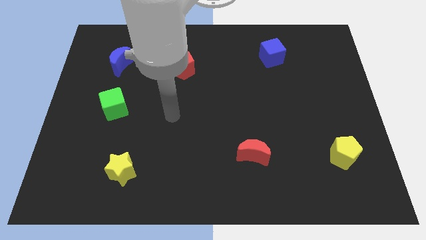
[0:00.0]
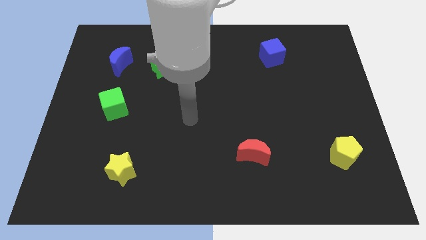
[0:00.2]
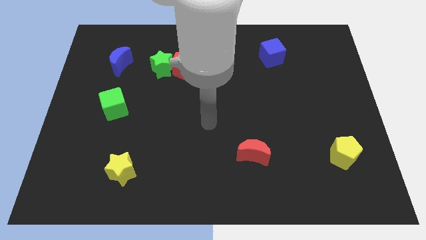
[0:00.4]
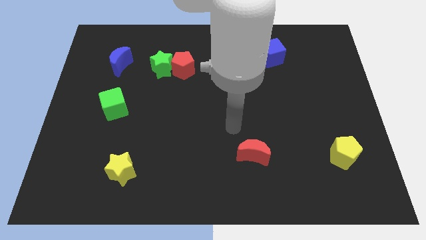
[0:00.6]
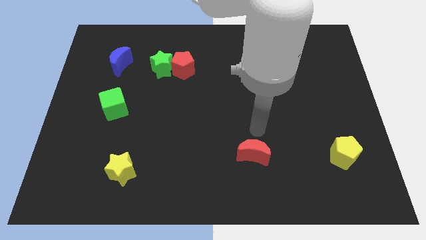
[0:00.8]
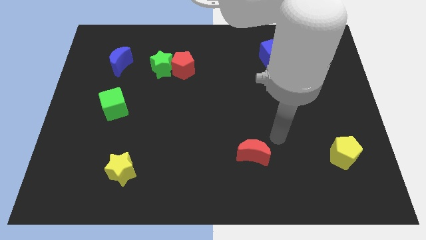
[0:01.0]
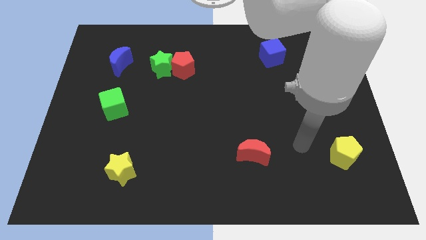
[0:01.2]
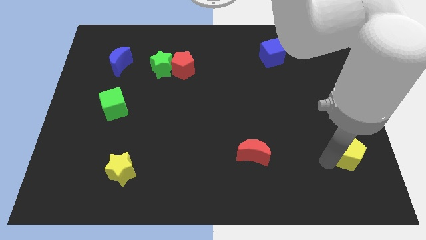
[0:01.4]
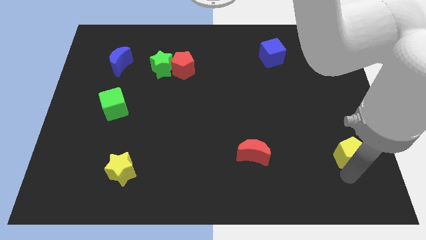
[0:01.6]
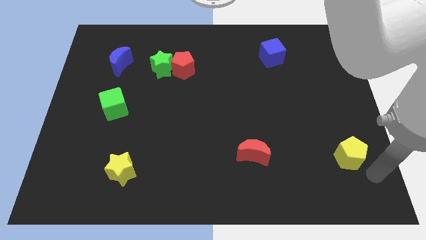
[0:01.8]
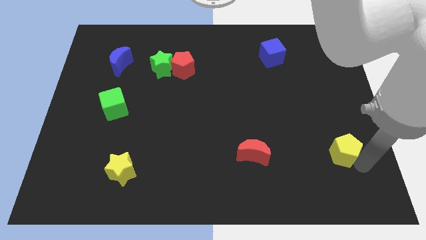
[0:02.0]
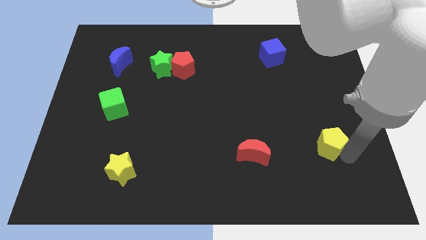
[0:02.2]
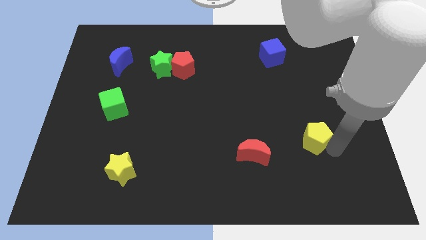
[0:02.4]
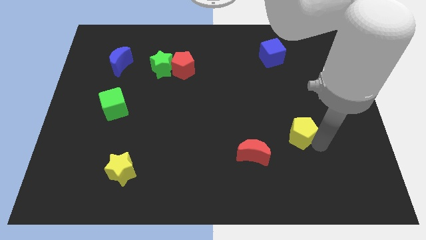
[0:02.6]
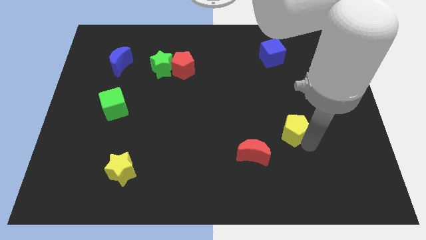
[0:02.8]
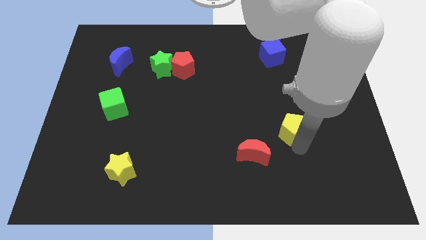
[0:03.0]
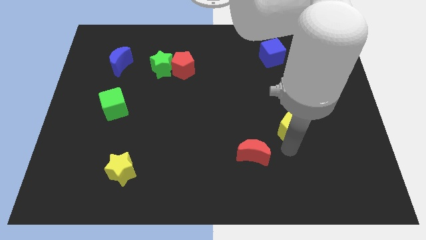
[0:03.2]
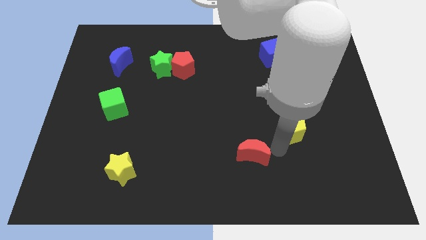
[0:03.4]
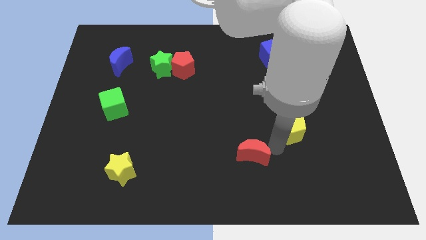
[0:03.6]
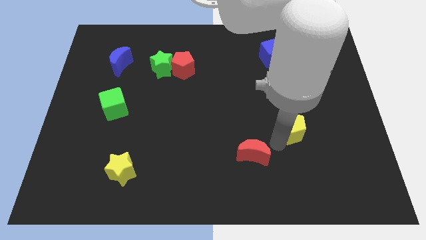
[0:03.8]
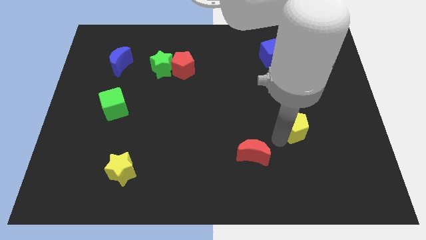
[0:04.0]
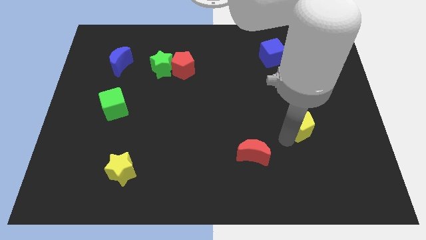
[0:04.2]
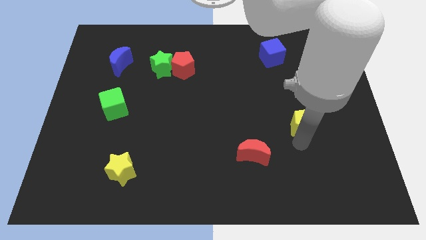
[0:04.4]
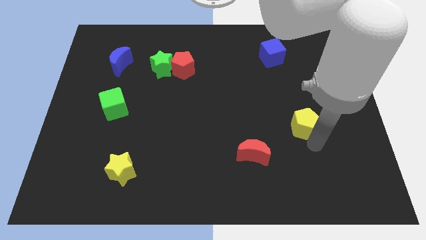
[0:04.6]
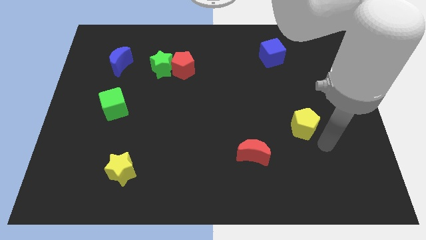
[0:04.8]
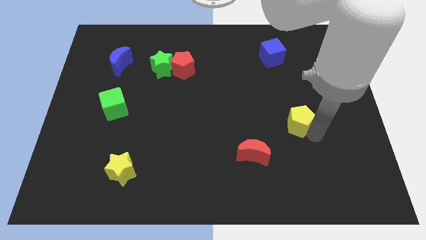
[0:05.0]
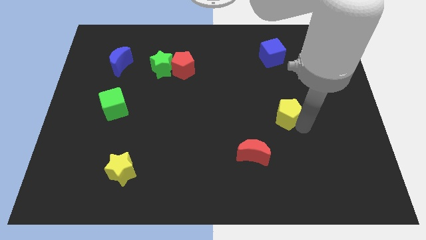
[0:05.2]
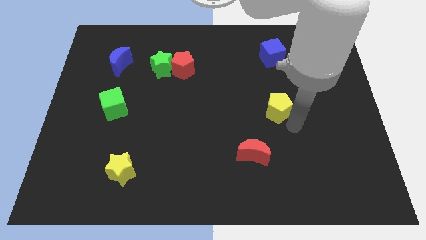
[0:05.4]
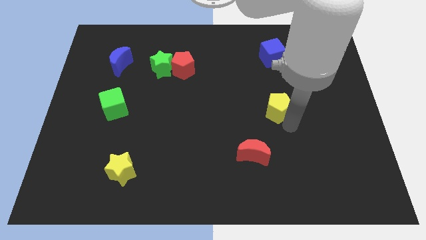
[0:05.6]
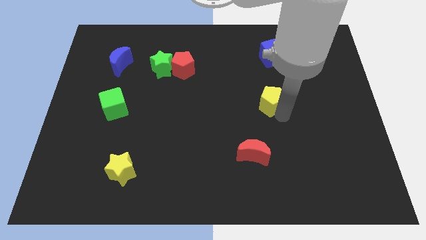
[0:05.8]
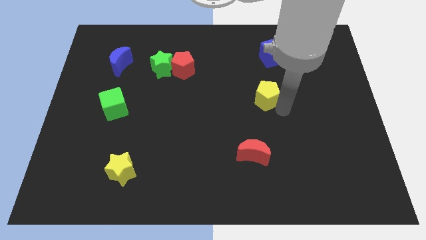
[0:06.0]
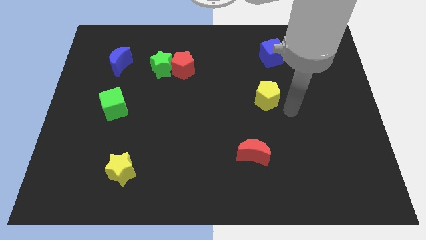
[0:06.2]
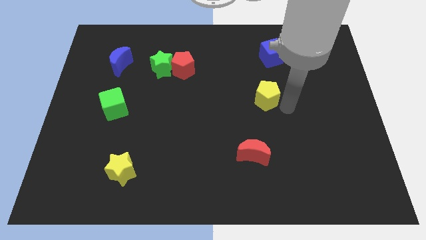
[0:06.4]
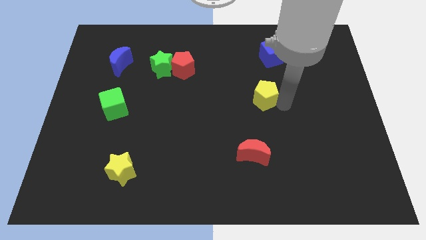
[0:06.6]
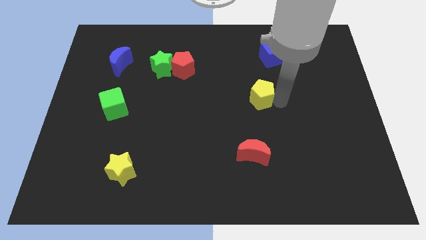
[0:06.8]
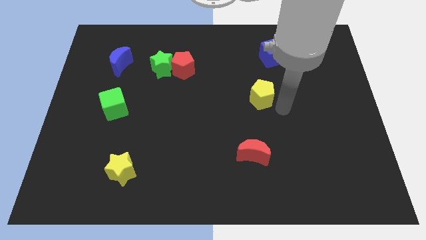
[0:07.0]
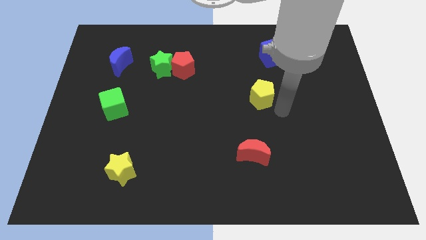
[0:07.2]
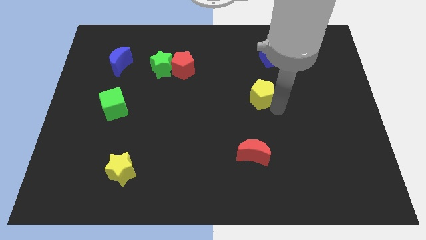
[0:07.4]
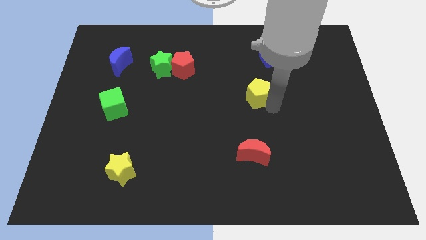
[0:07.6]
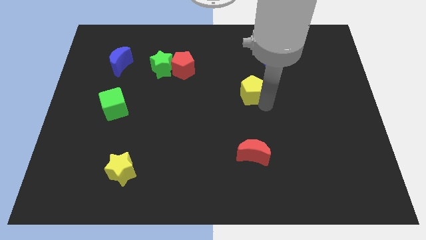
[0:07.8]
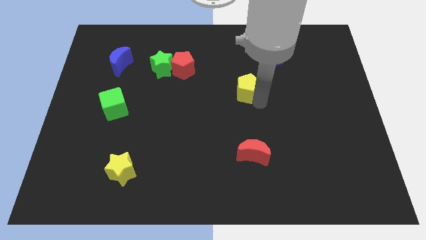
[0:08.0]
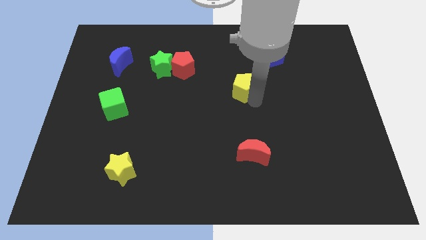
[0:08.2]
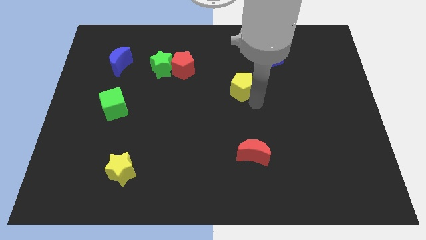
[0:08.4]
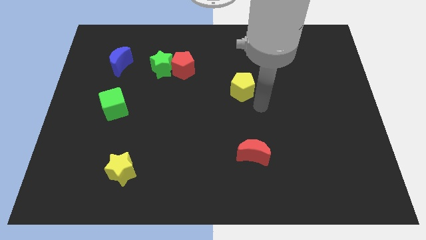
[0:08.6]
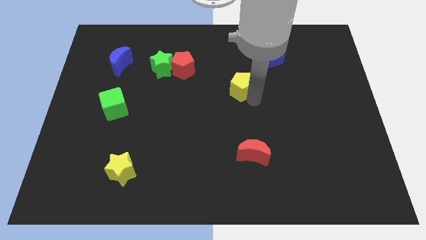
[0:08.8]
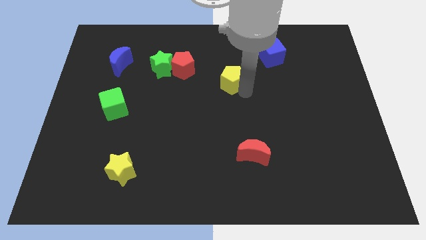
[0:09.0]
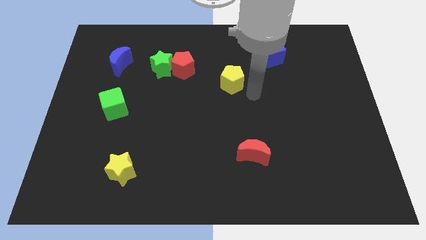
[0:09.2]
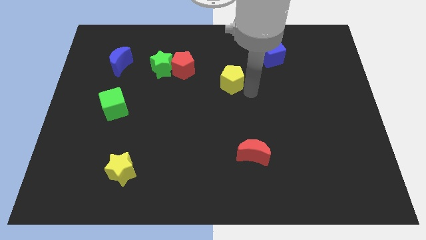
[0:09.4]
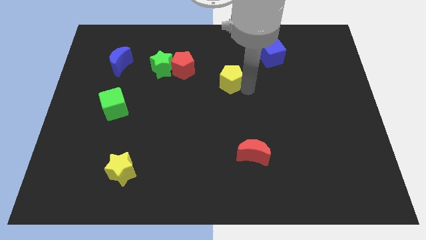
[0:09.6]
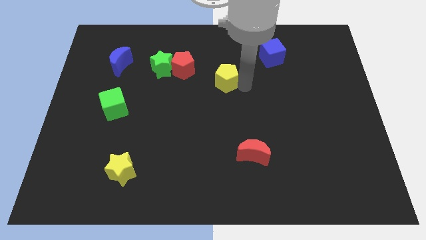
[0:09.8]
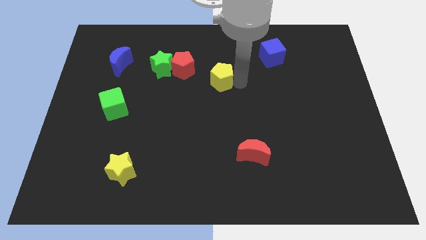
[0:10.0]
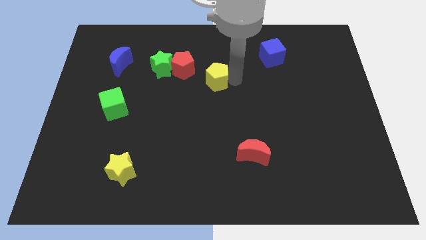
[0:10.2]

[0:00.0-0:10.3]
slide the yellow pentagon to the right side of the green star

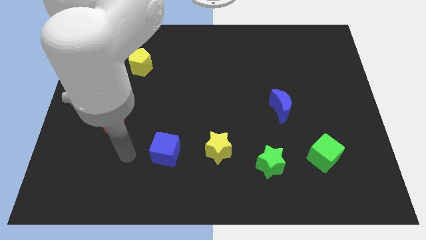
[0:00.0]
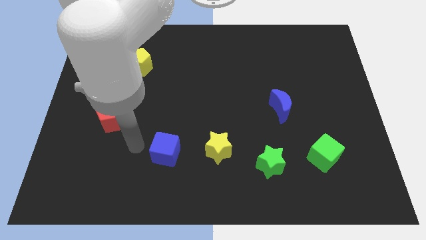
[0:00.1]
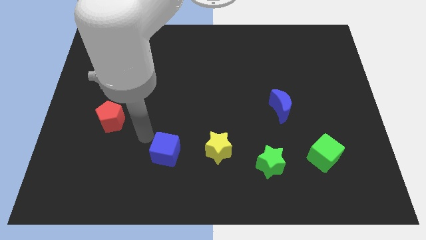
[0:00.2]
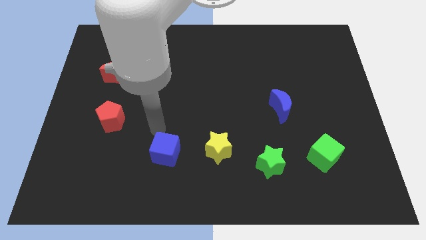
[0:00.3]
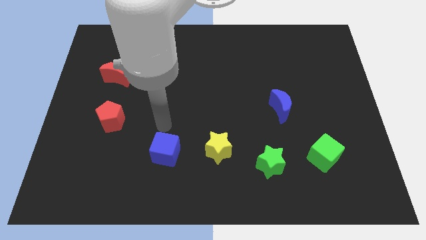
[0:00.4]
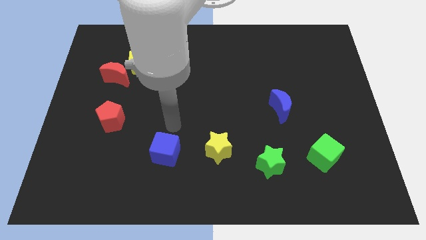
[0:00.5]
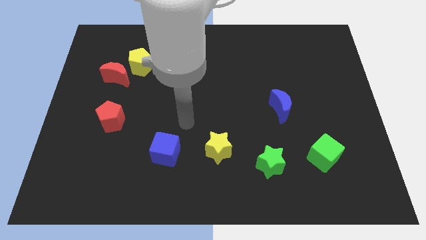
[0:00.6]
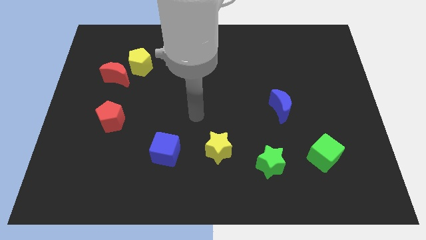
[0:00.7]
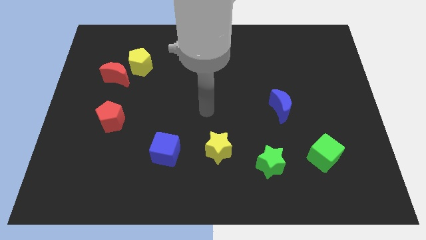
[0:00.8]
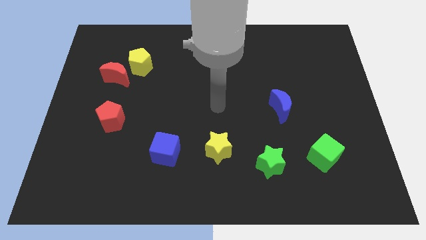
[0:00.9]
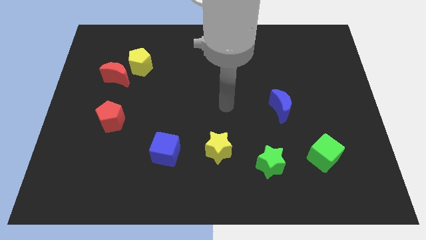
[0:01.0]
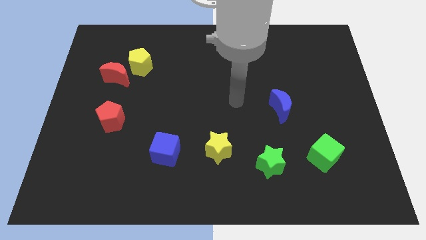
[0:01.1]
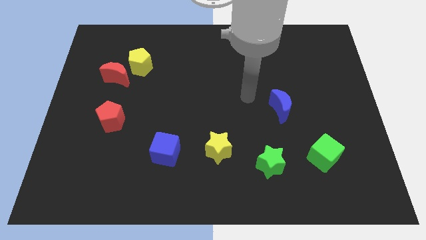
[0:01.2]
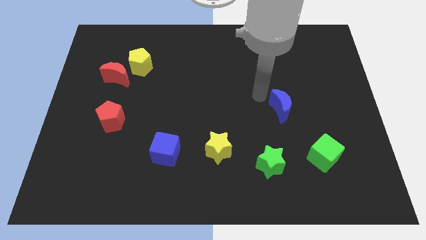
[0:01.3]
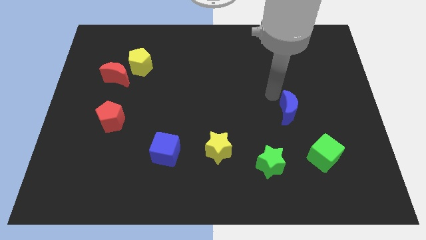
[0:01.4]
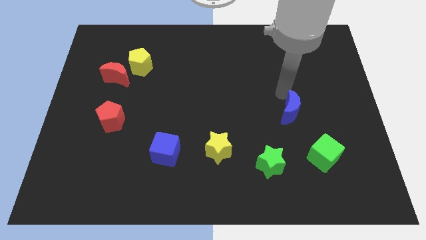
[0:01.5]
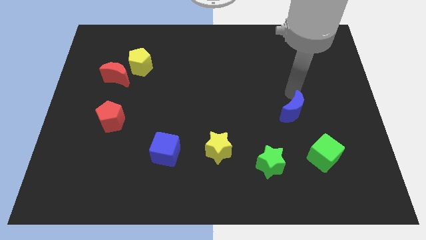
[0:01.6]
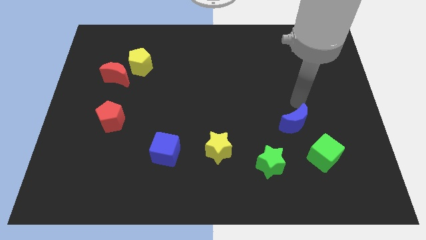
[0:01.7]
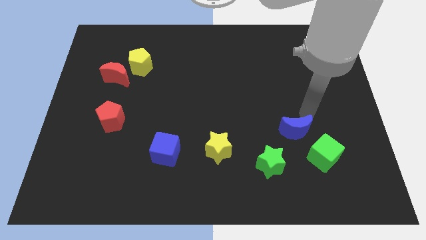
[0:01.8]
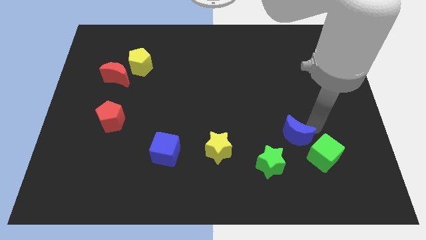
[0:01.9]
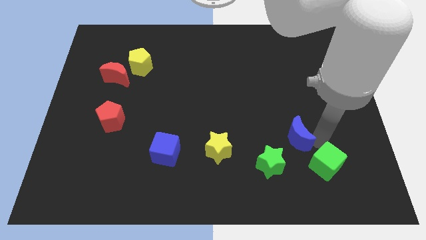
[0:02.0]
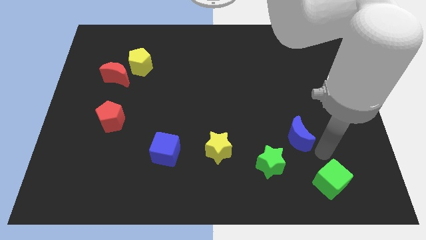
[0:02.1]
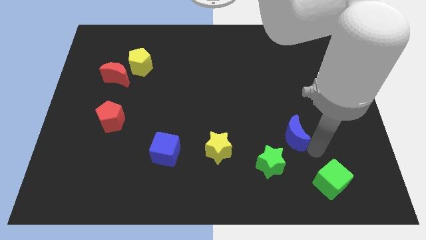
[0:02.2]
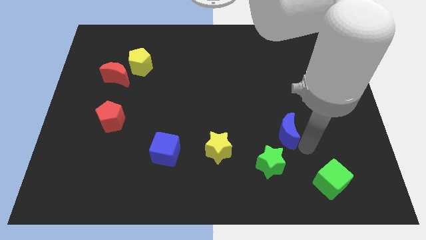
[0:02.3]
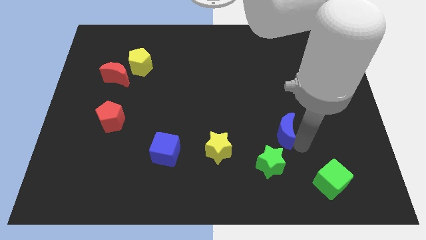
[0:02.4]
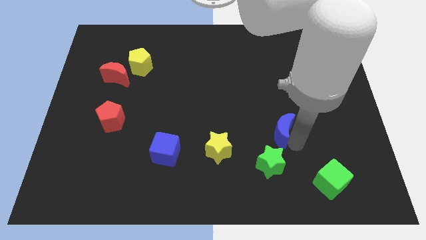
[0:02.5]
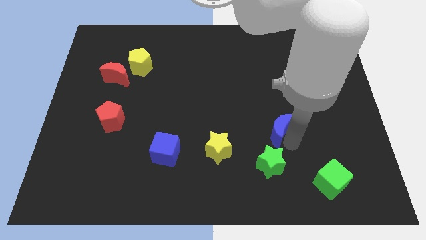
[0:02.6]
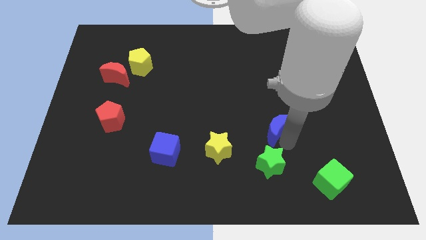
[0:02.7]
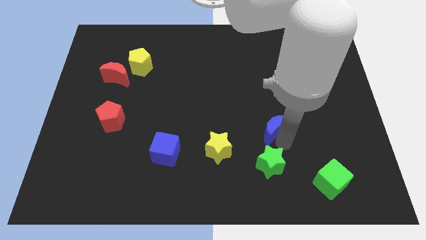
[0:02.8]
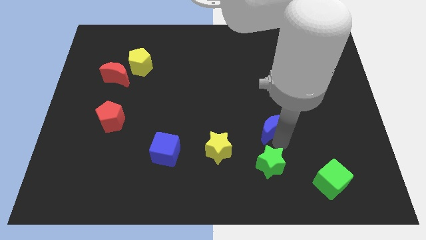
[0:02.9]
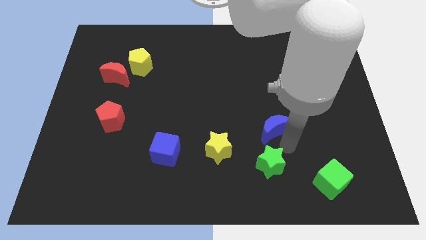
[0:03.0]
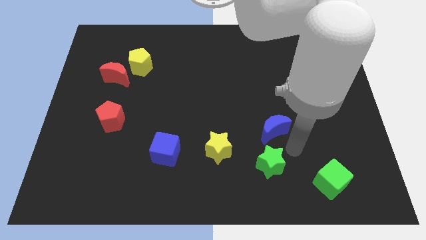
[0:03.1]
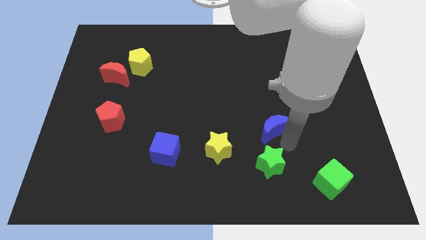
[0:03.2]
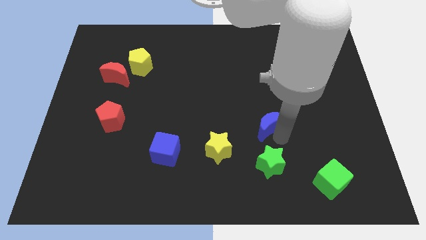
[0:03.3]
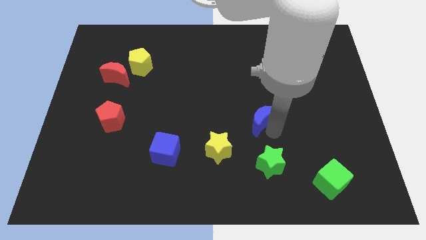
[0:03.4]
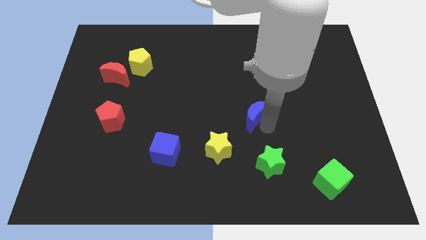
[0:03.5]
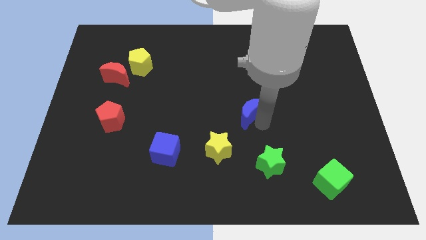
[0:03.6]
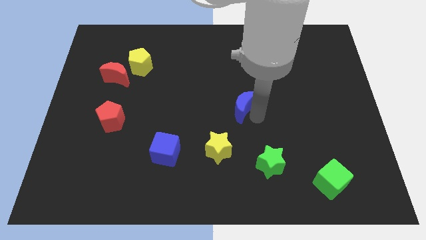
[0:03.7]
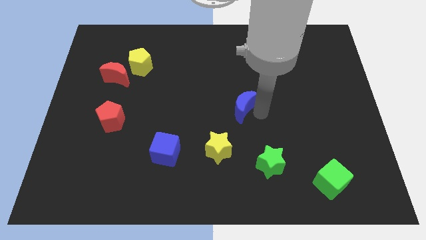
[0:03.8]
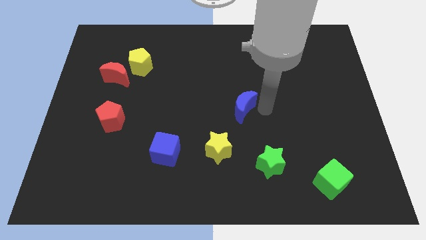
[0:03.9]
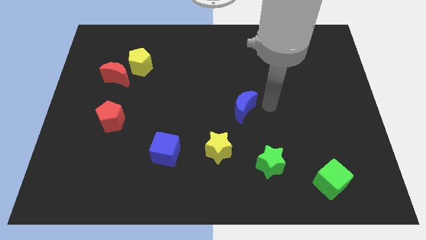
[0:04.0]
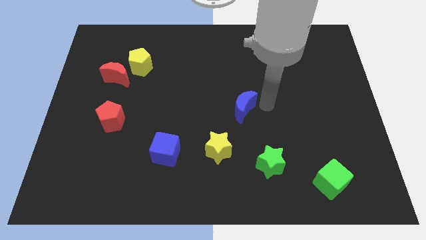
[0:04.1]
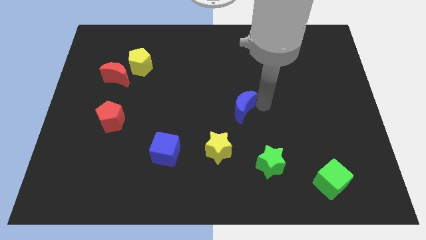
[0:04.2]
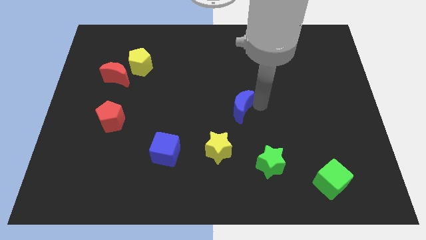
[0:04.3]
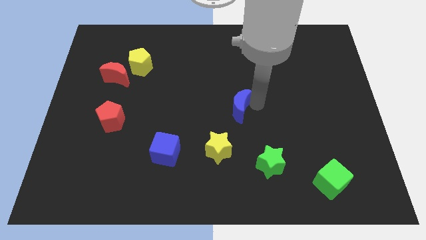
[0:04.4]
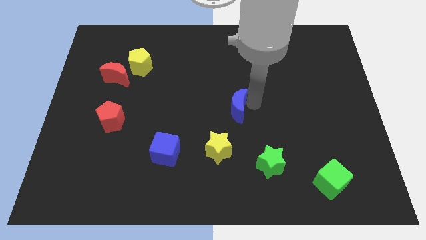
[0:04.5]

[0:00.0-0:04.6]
push the blue moon to the top side of the yellow star
